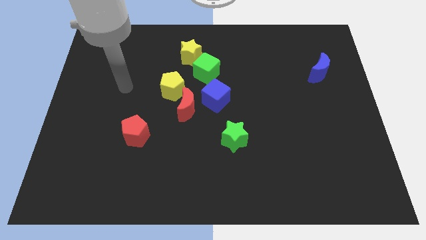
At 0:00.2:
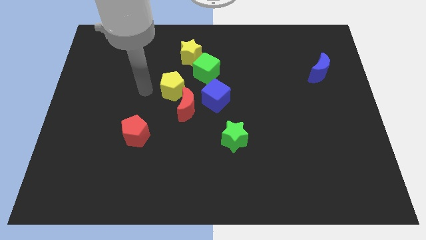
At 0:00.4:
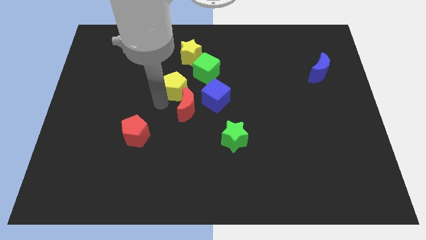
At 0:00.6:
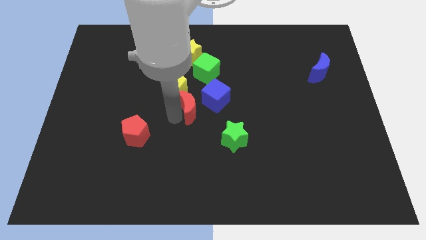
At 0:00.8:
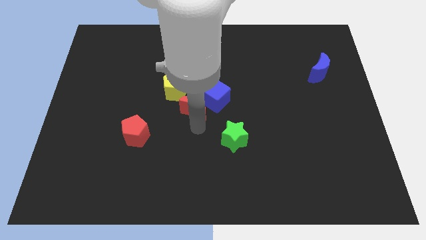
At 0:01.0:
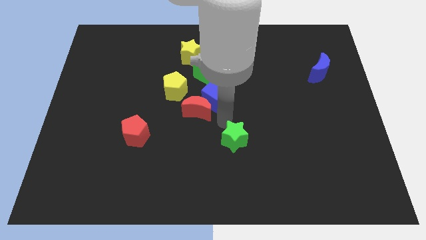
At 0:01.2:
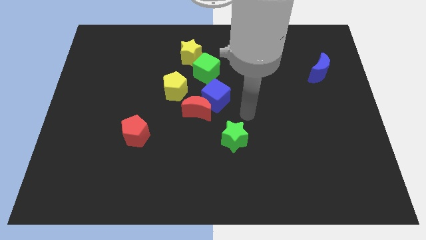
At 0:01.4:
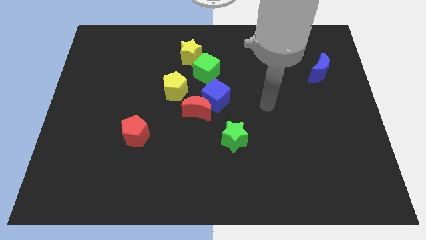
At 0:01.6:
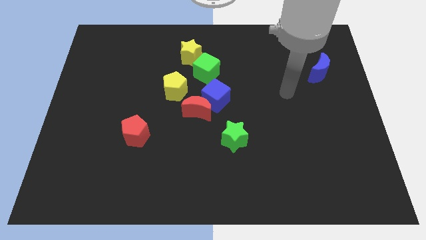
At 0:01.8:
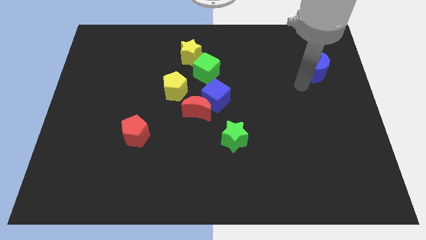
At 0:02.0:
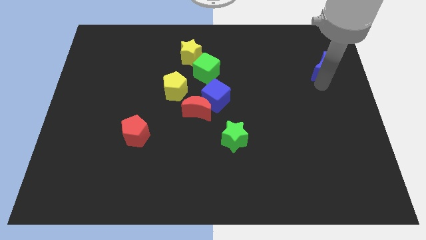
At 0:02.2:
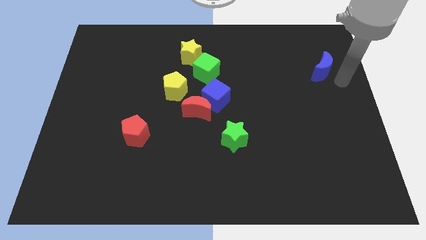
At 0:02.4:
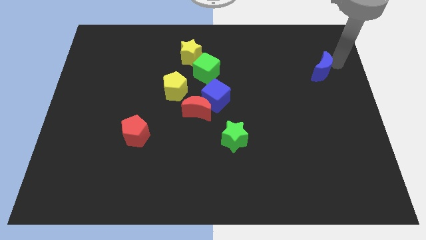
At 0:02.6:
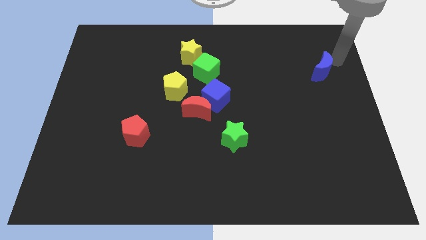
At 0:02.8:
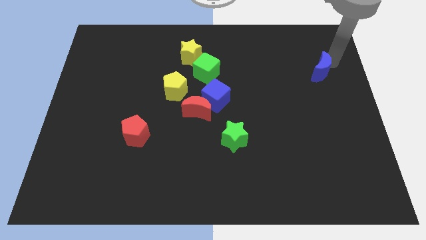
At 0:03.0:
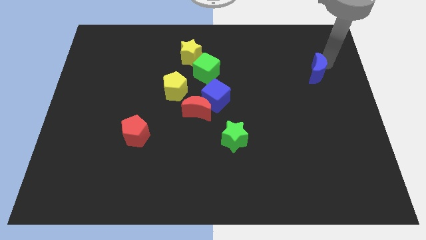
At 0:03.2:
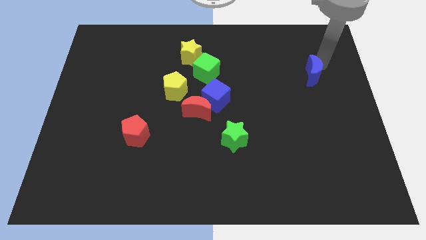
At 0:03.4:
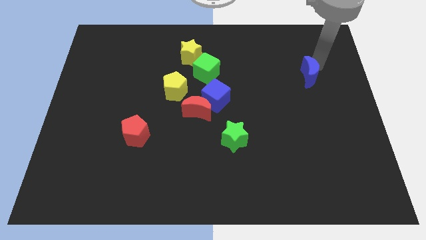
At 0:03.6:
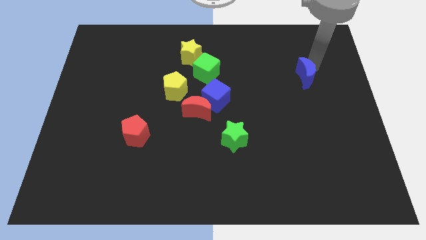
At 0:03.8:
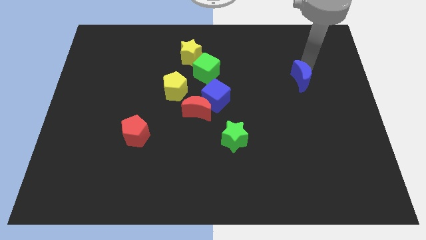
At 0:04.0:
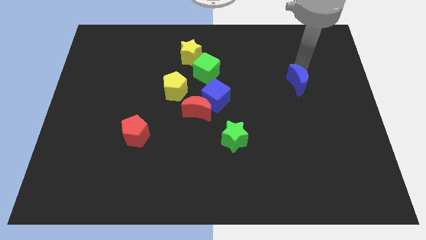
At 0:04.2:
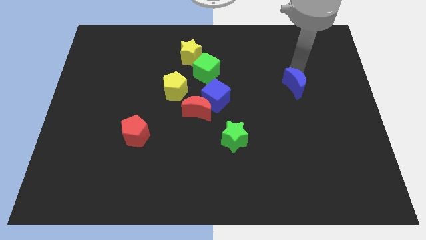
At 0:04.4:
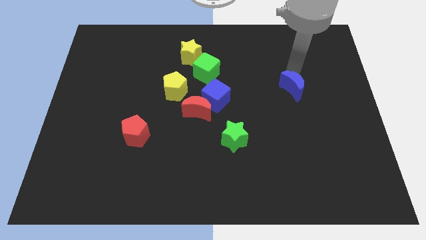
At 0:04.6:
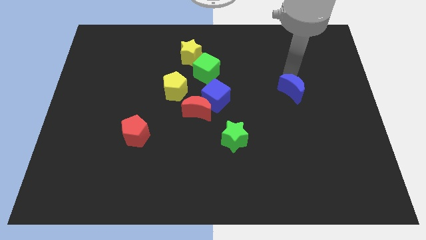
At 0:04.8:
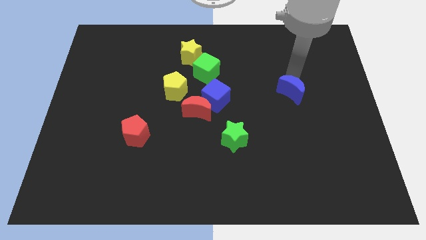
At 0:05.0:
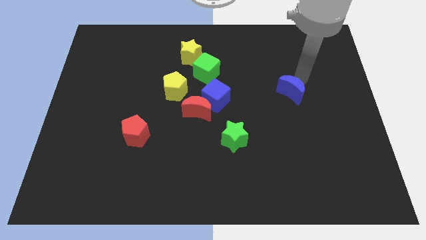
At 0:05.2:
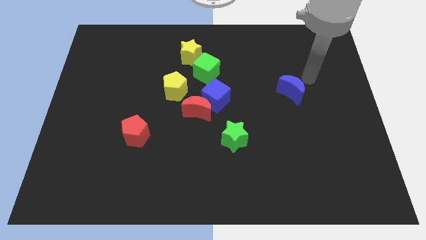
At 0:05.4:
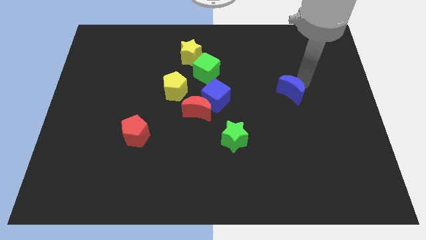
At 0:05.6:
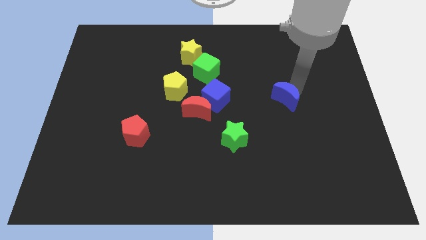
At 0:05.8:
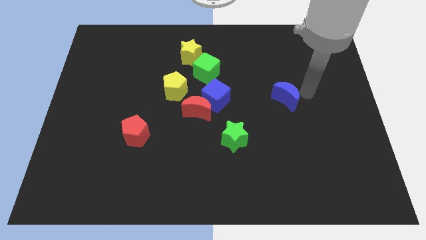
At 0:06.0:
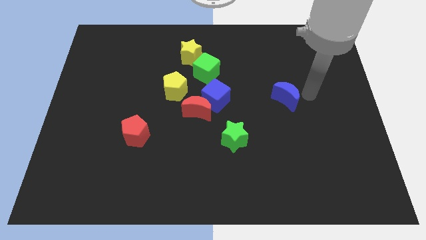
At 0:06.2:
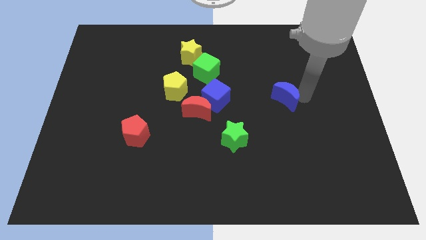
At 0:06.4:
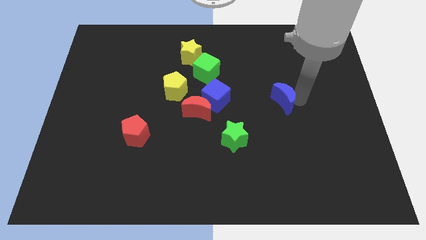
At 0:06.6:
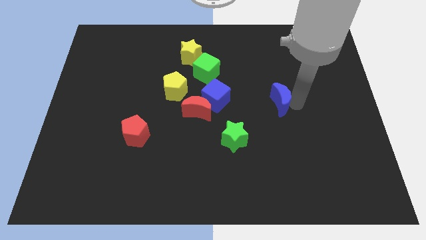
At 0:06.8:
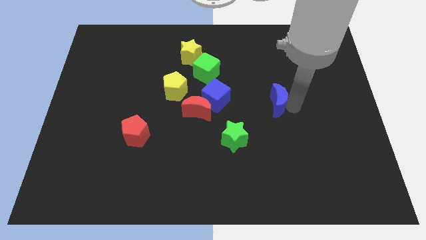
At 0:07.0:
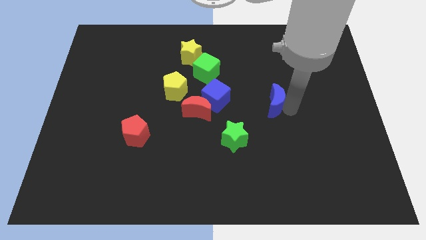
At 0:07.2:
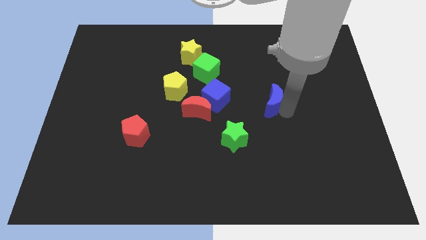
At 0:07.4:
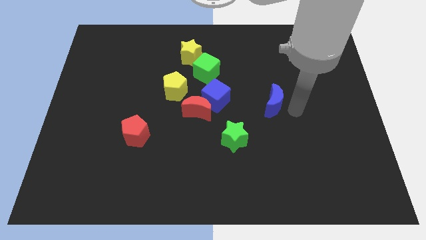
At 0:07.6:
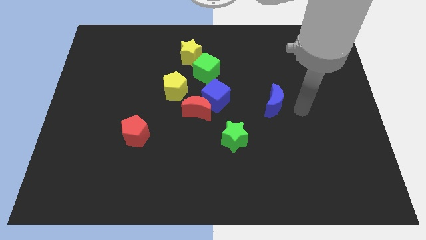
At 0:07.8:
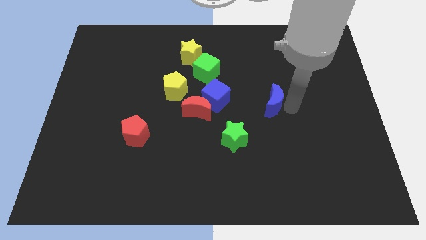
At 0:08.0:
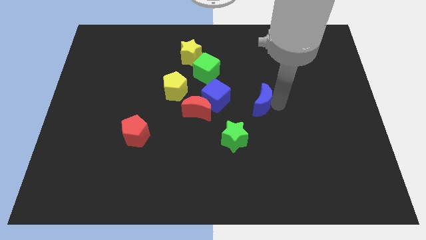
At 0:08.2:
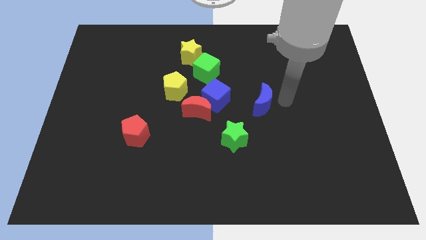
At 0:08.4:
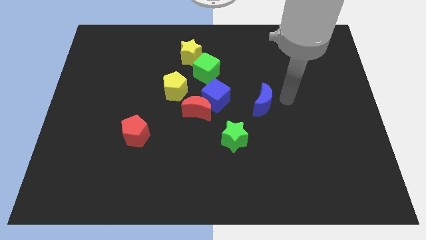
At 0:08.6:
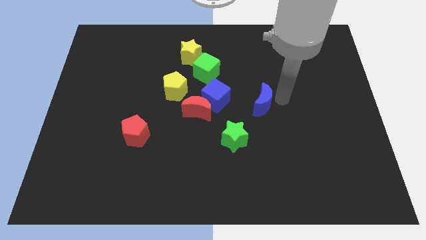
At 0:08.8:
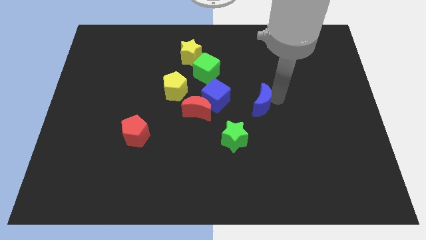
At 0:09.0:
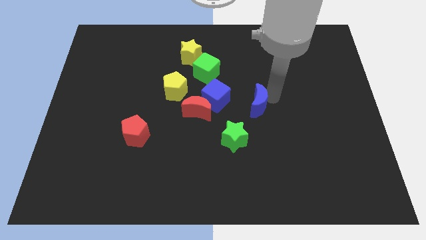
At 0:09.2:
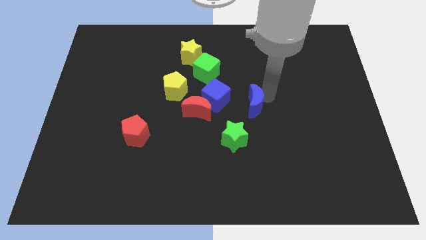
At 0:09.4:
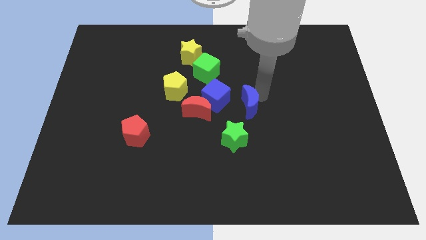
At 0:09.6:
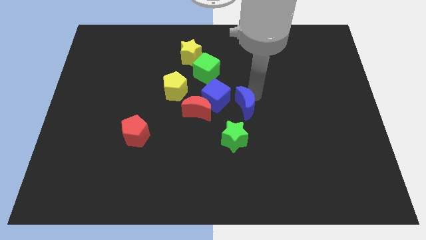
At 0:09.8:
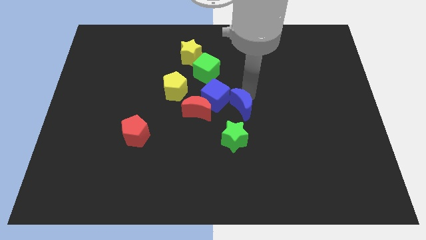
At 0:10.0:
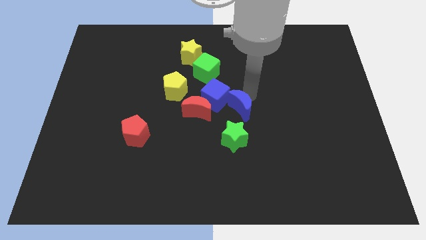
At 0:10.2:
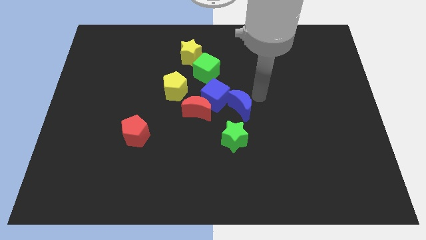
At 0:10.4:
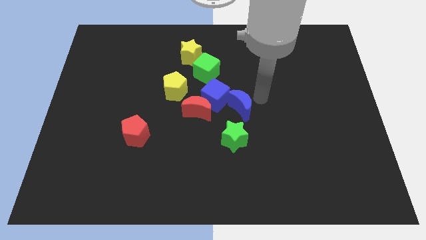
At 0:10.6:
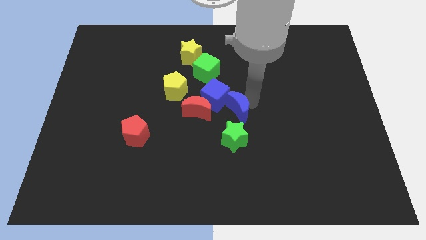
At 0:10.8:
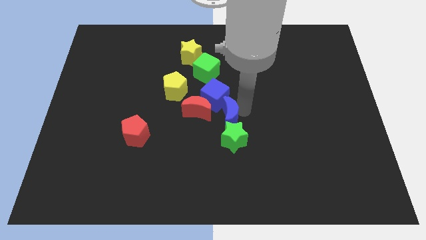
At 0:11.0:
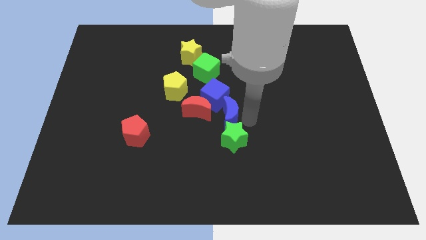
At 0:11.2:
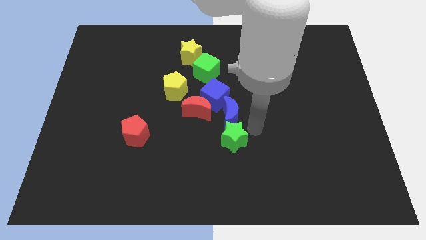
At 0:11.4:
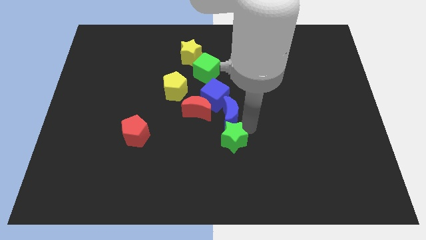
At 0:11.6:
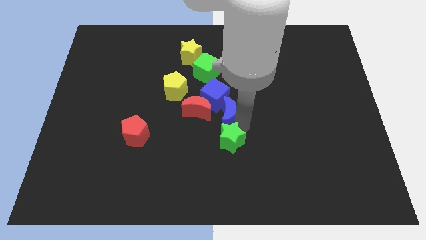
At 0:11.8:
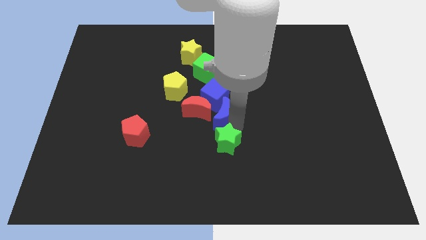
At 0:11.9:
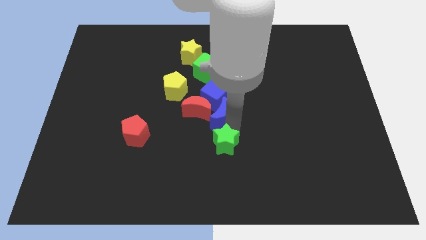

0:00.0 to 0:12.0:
push the blue moon below the green cube

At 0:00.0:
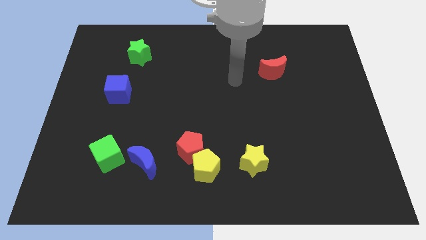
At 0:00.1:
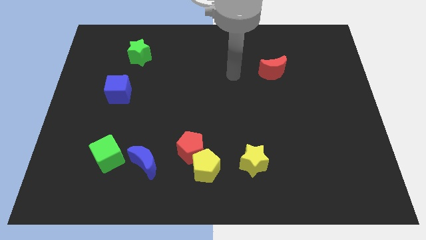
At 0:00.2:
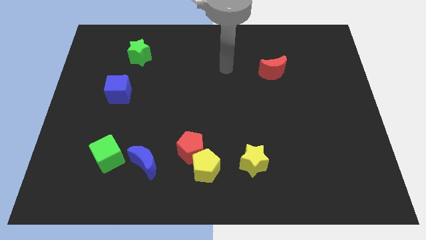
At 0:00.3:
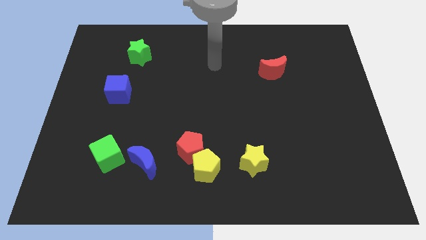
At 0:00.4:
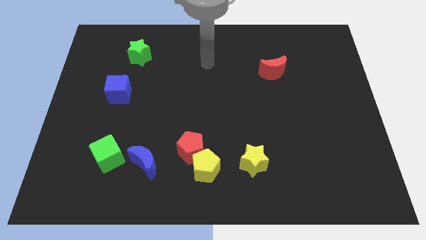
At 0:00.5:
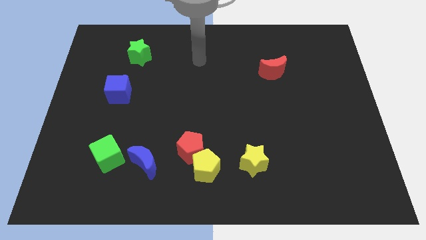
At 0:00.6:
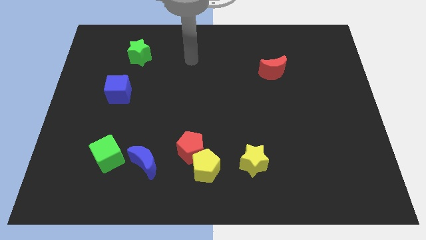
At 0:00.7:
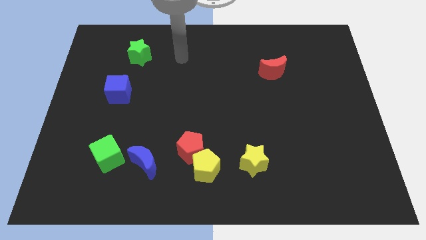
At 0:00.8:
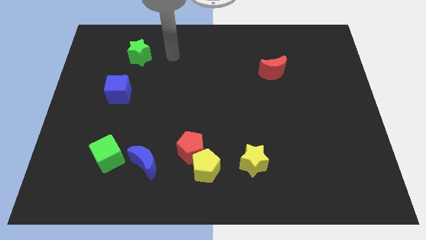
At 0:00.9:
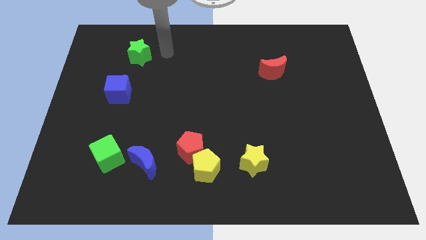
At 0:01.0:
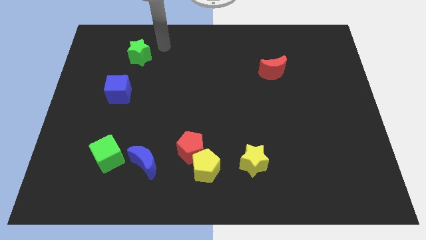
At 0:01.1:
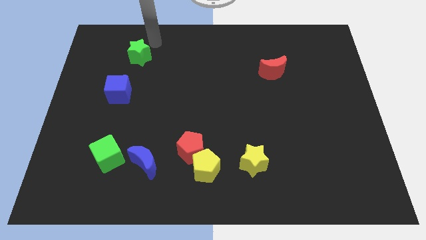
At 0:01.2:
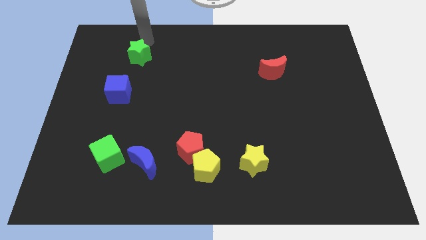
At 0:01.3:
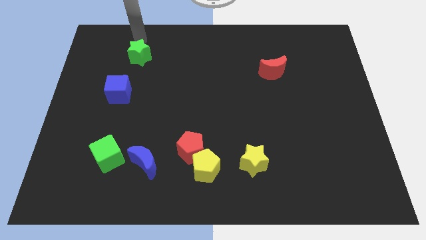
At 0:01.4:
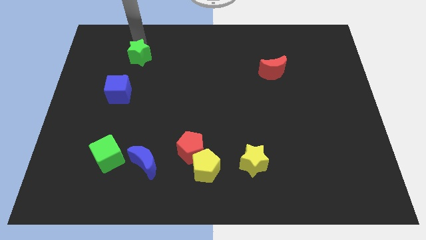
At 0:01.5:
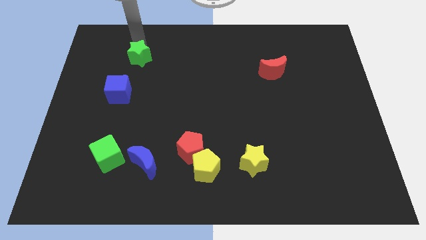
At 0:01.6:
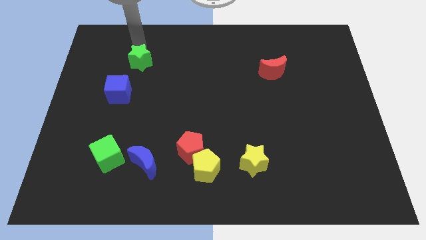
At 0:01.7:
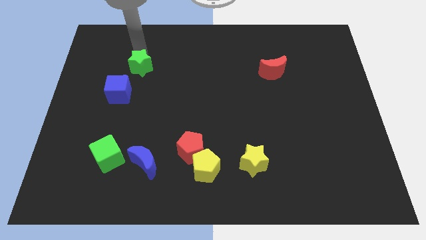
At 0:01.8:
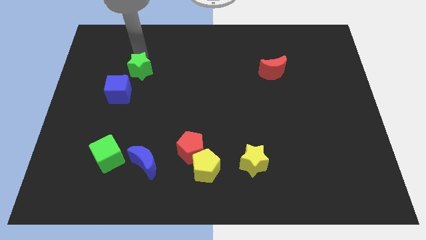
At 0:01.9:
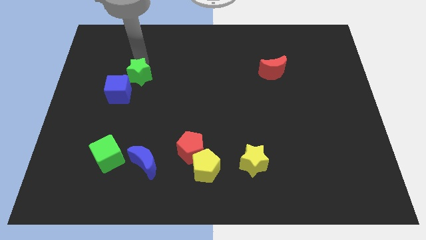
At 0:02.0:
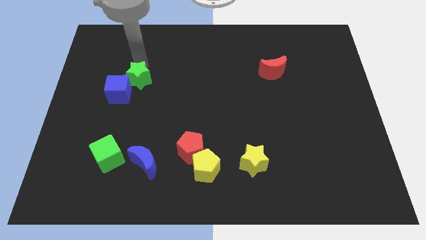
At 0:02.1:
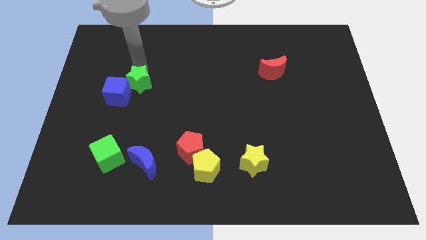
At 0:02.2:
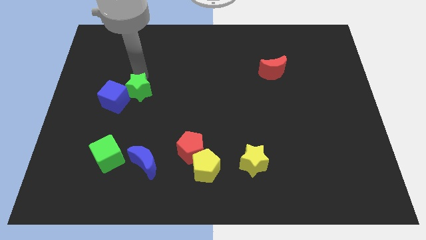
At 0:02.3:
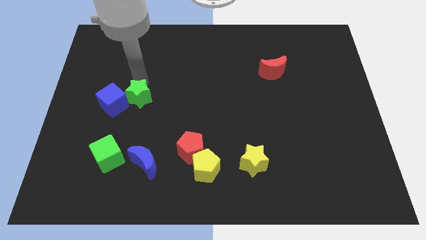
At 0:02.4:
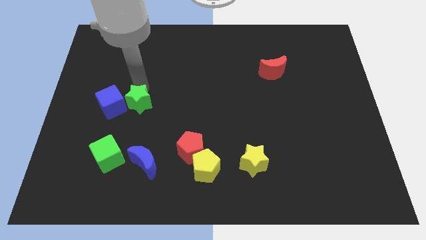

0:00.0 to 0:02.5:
move the green star diagonally down and to the right of the blue cube
